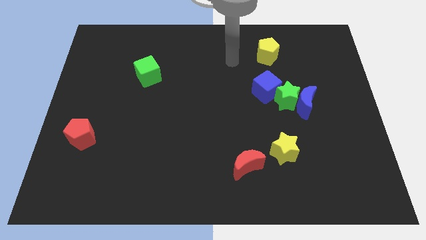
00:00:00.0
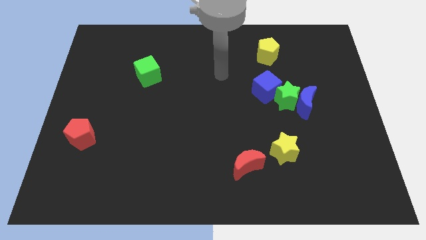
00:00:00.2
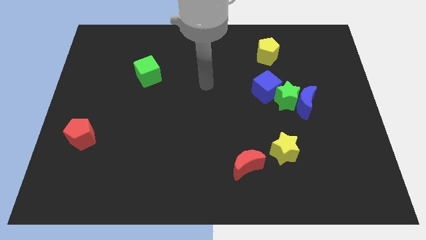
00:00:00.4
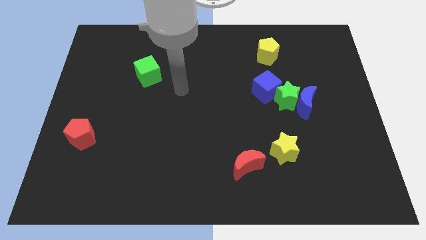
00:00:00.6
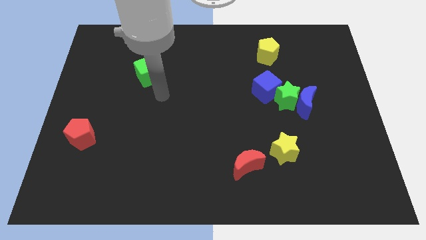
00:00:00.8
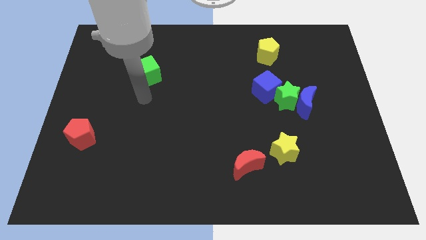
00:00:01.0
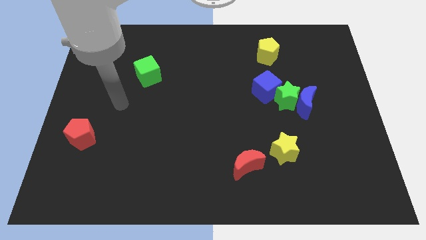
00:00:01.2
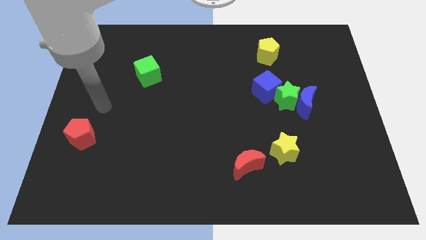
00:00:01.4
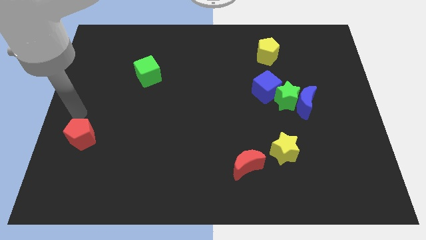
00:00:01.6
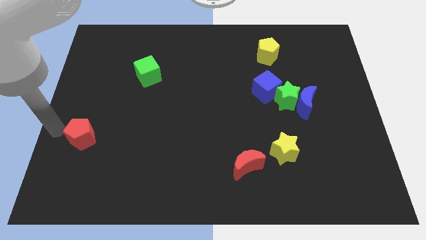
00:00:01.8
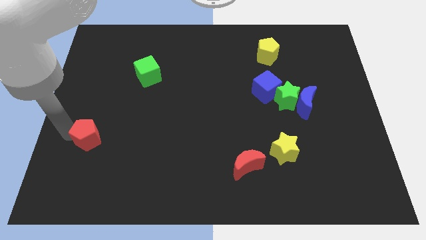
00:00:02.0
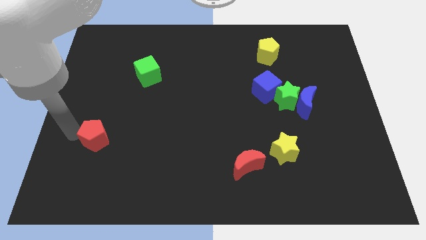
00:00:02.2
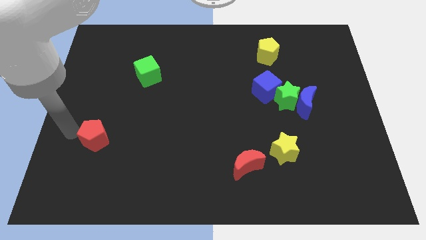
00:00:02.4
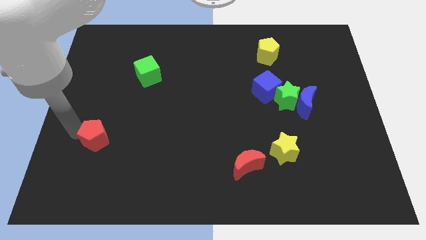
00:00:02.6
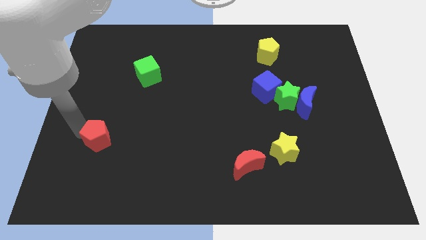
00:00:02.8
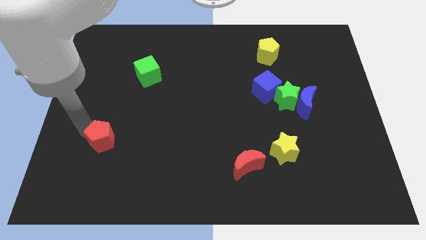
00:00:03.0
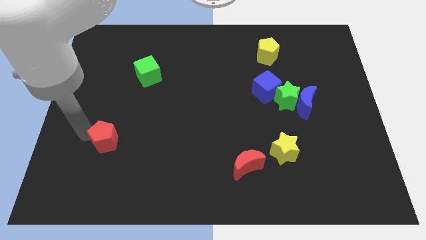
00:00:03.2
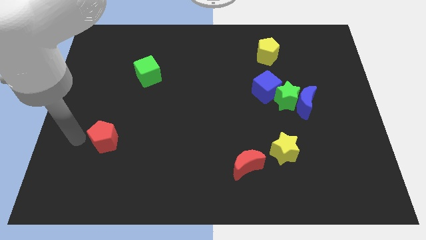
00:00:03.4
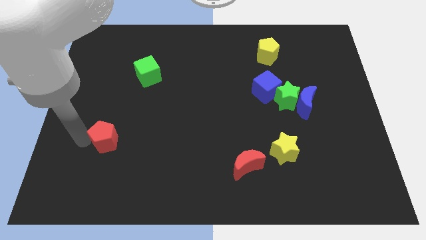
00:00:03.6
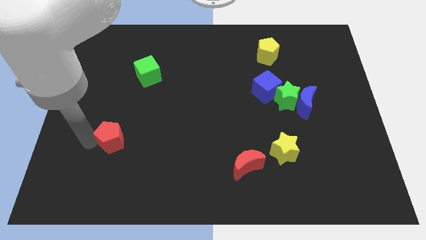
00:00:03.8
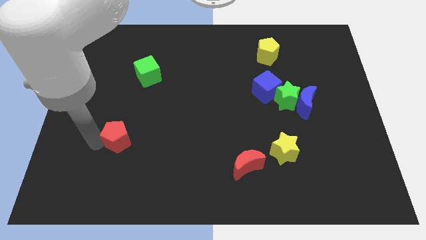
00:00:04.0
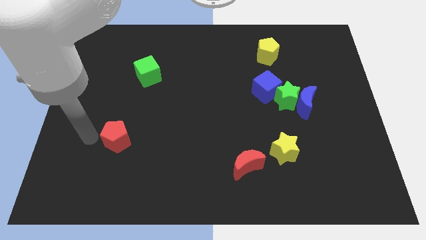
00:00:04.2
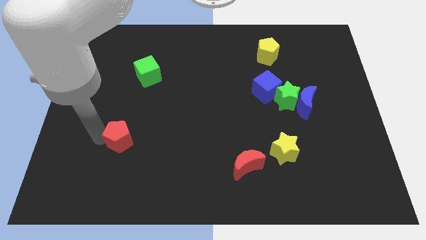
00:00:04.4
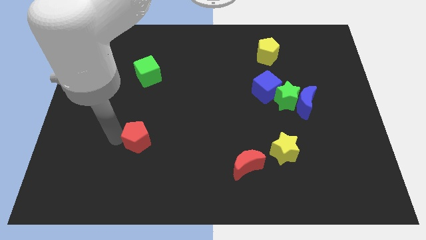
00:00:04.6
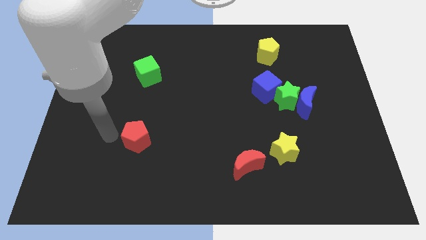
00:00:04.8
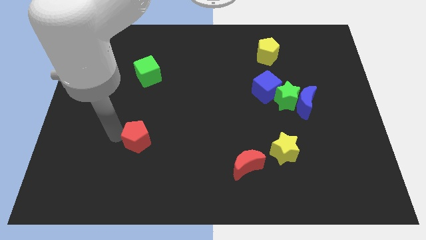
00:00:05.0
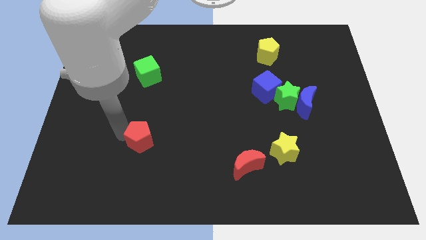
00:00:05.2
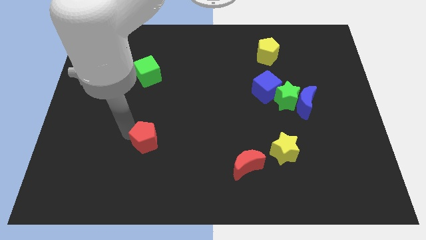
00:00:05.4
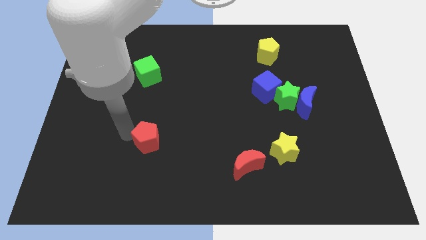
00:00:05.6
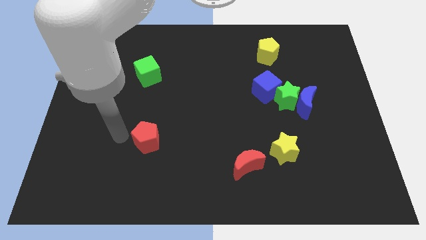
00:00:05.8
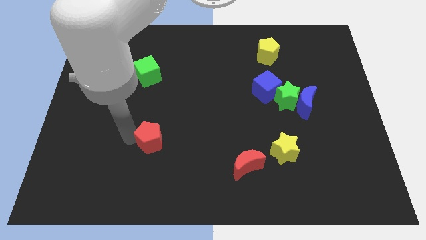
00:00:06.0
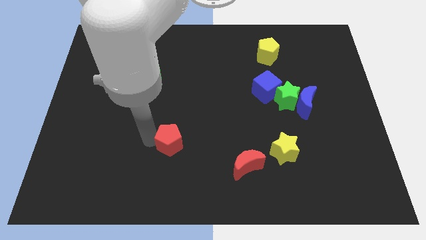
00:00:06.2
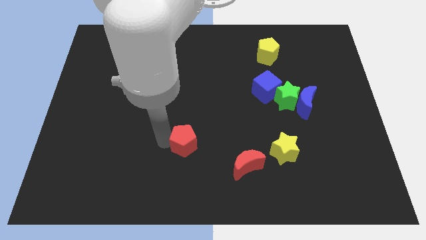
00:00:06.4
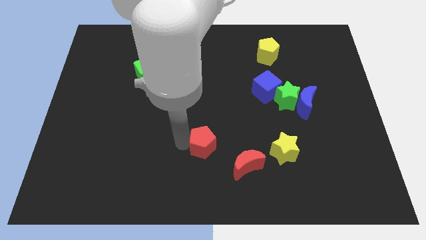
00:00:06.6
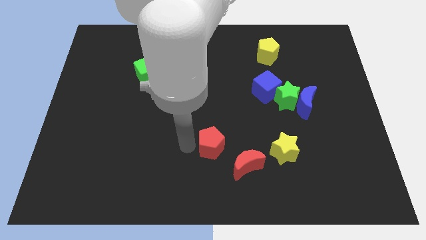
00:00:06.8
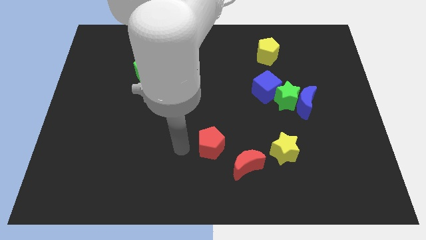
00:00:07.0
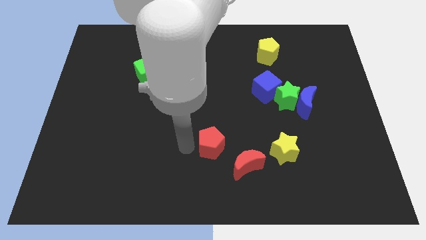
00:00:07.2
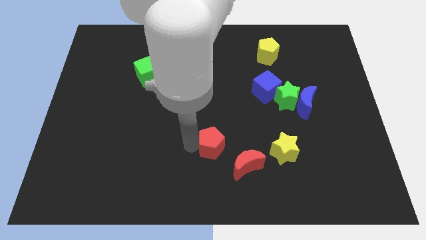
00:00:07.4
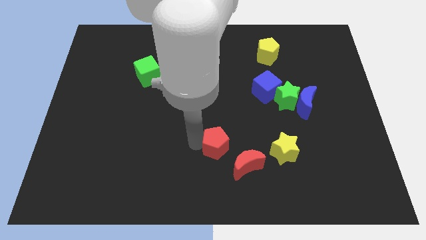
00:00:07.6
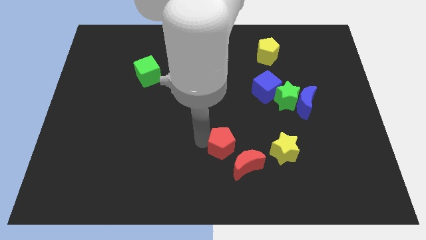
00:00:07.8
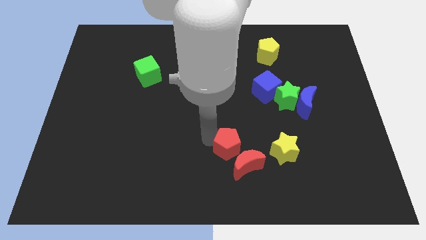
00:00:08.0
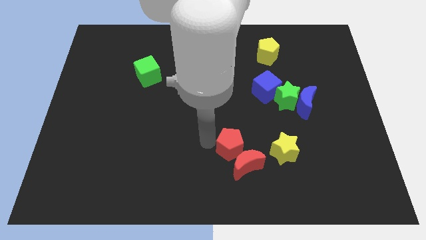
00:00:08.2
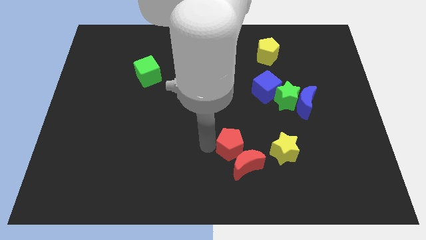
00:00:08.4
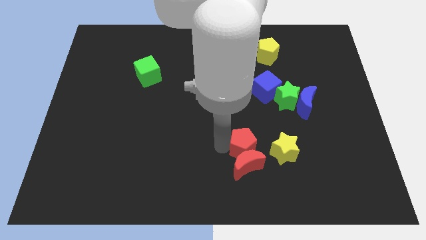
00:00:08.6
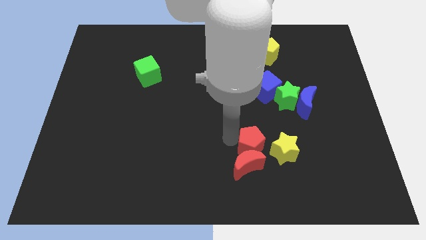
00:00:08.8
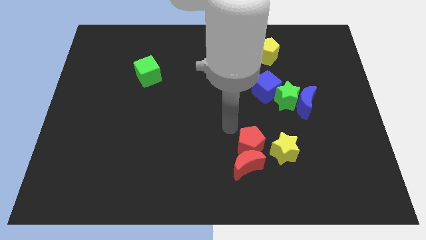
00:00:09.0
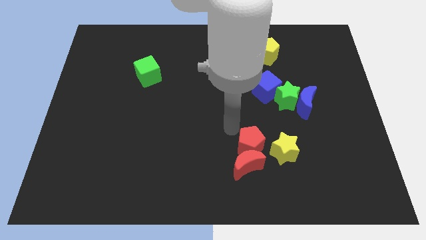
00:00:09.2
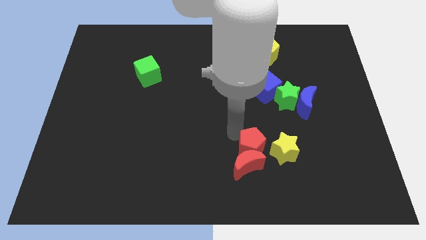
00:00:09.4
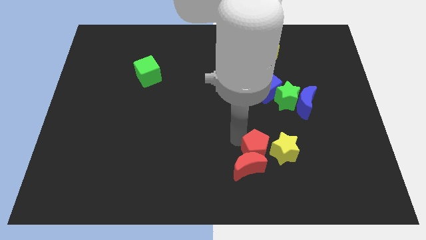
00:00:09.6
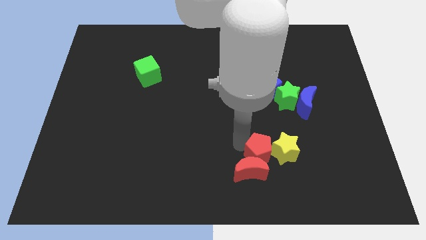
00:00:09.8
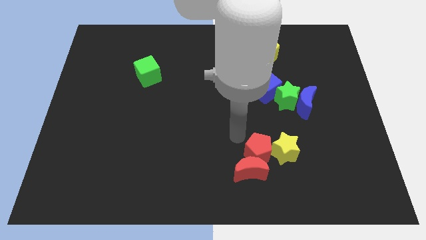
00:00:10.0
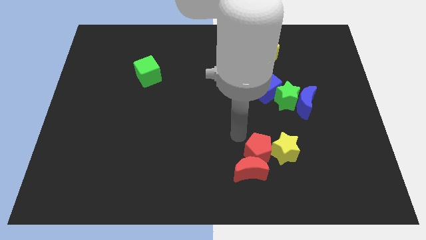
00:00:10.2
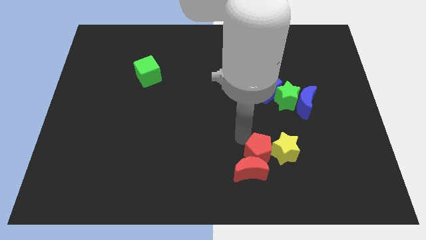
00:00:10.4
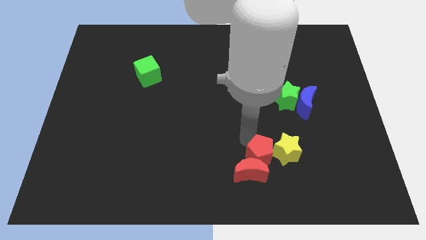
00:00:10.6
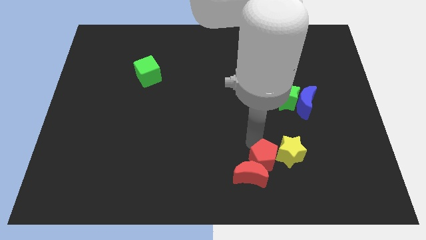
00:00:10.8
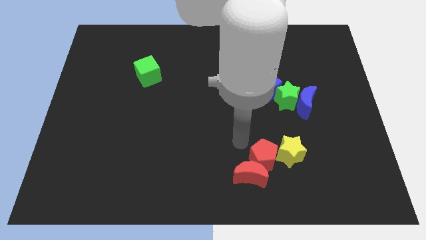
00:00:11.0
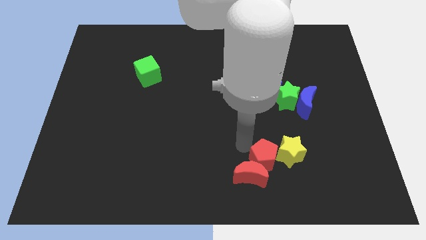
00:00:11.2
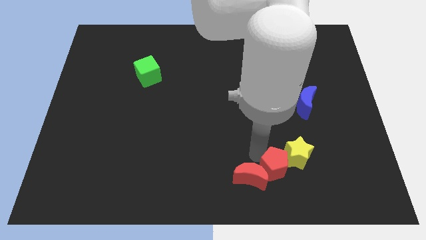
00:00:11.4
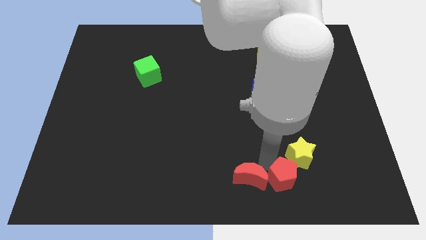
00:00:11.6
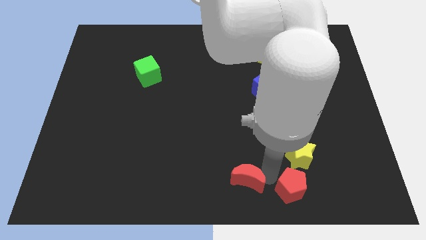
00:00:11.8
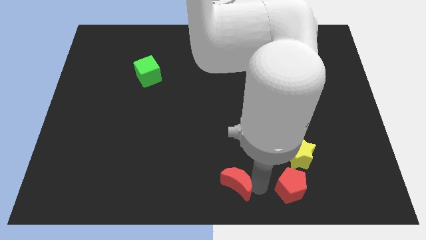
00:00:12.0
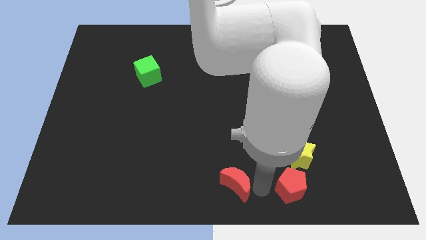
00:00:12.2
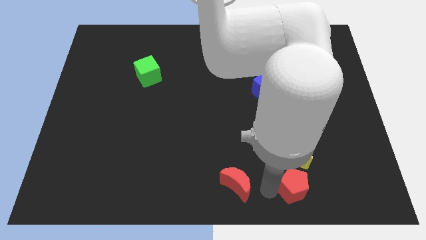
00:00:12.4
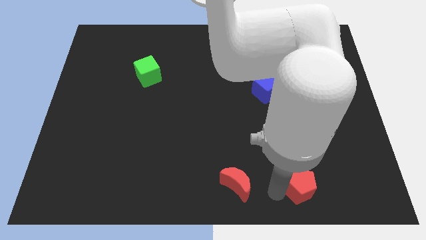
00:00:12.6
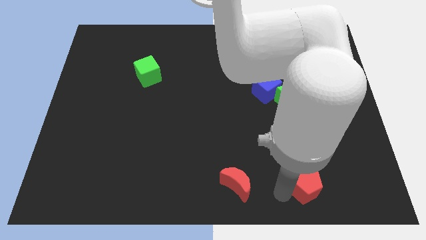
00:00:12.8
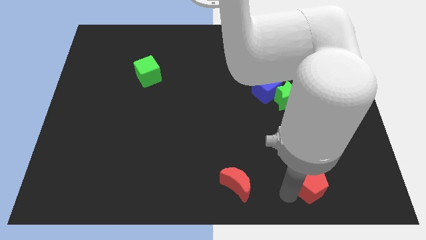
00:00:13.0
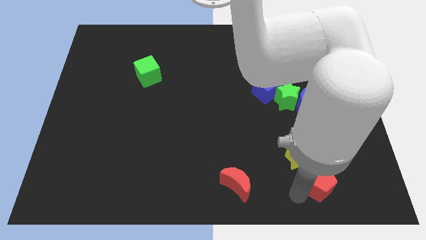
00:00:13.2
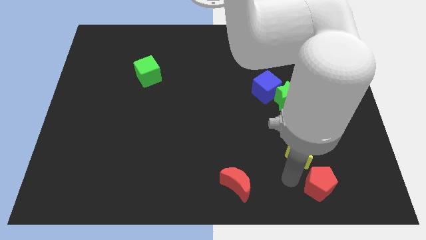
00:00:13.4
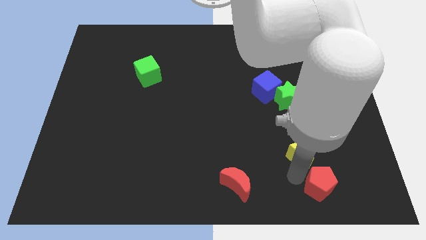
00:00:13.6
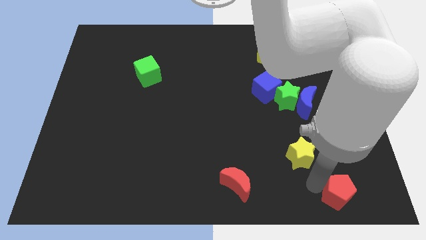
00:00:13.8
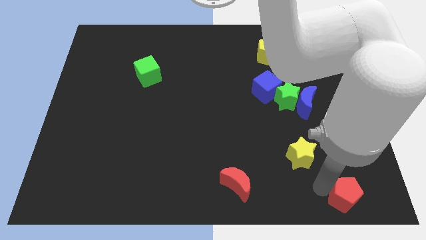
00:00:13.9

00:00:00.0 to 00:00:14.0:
move the red pentagon to the lower right corner
